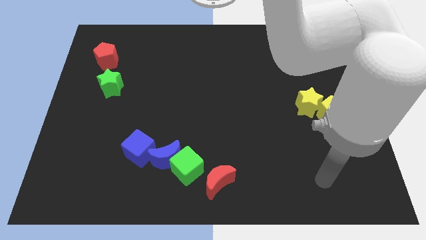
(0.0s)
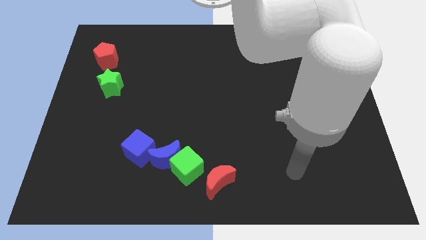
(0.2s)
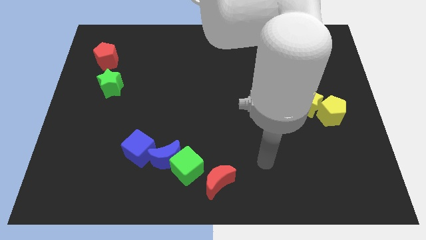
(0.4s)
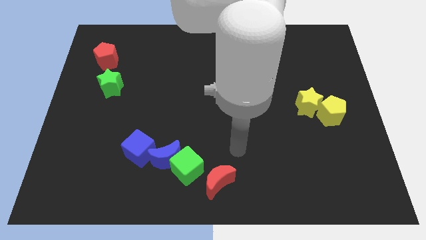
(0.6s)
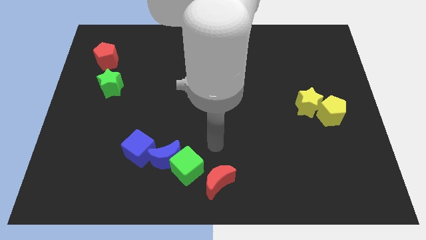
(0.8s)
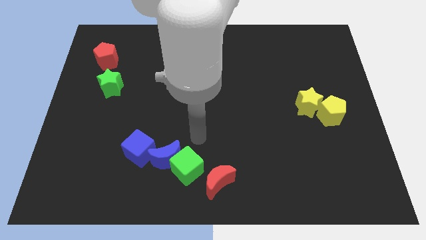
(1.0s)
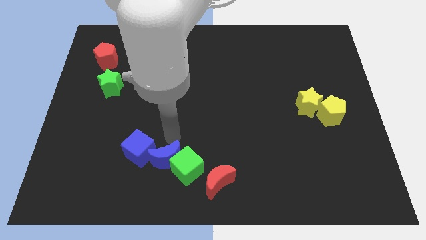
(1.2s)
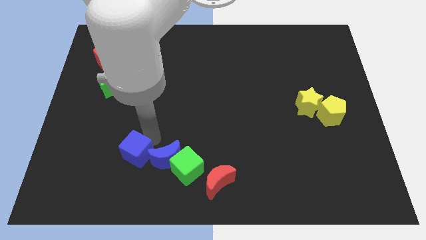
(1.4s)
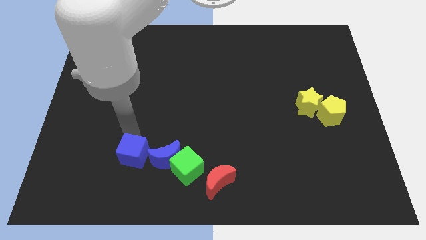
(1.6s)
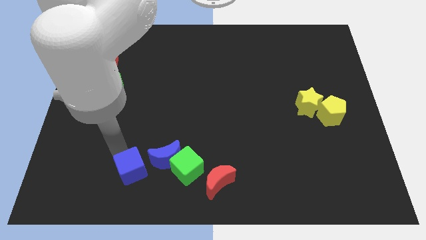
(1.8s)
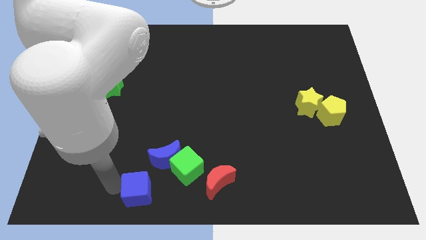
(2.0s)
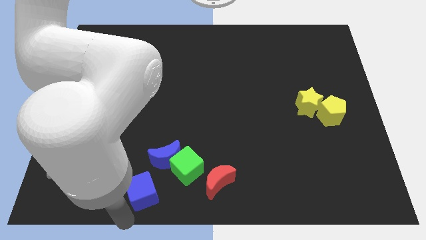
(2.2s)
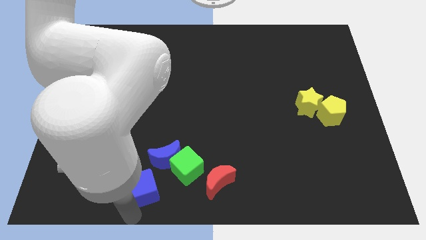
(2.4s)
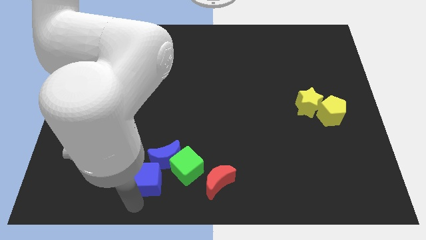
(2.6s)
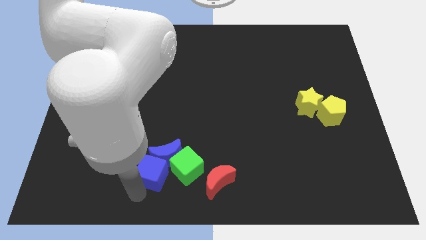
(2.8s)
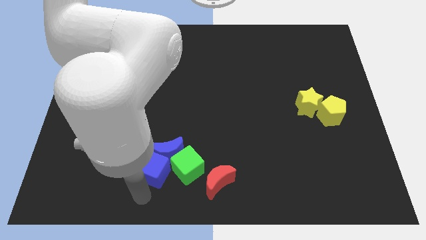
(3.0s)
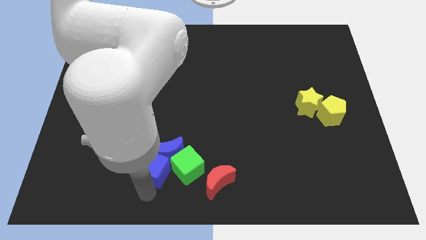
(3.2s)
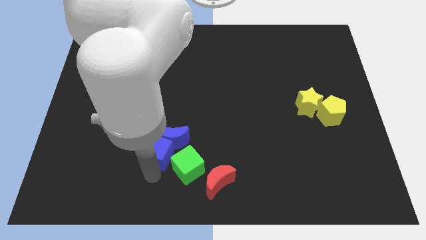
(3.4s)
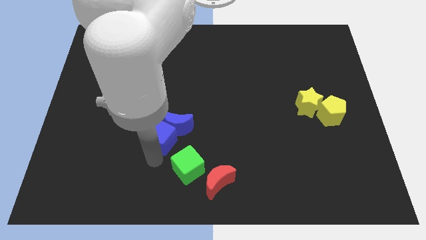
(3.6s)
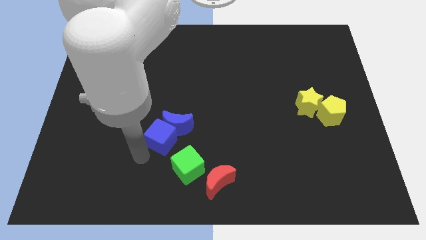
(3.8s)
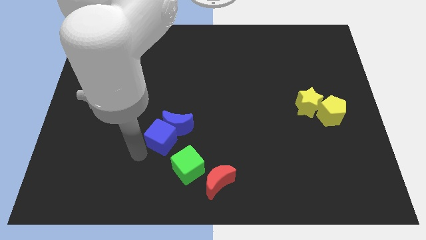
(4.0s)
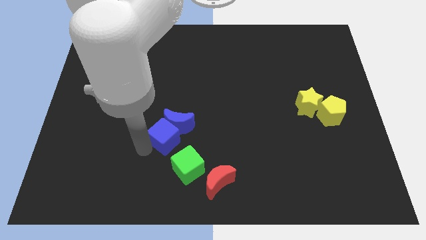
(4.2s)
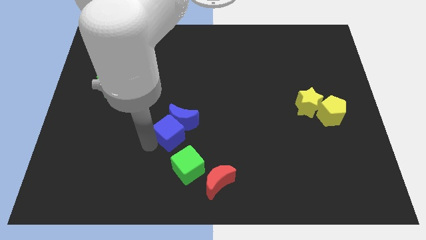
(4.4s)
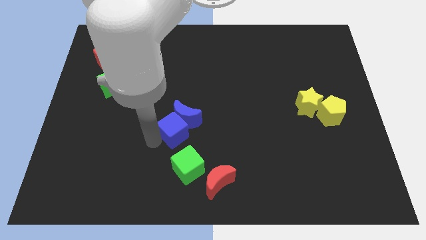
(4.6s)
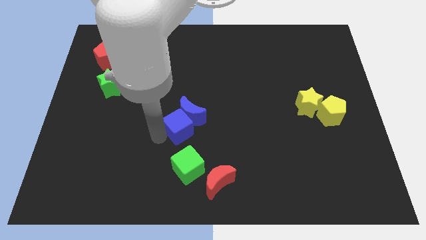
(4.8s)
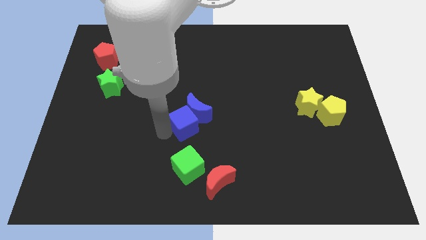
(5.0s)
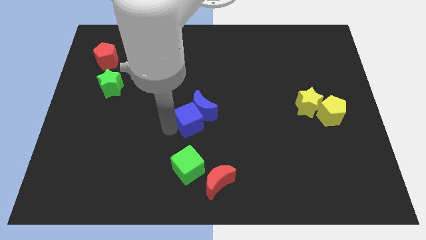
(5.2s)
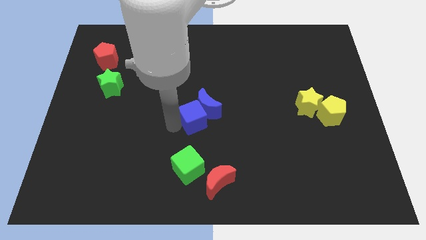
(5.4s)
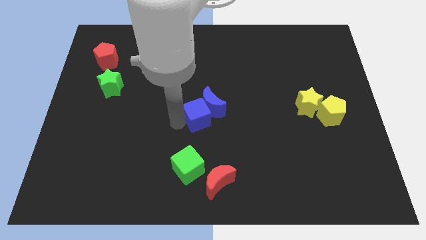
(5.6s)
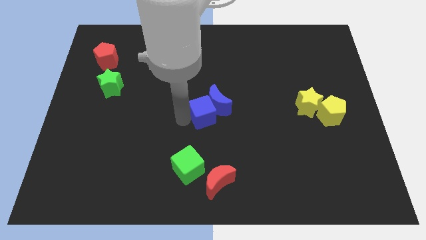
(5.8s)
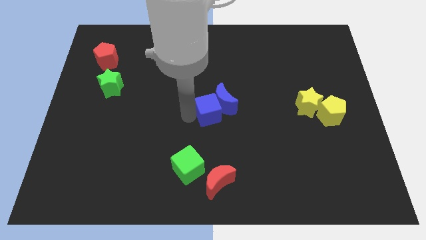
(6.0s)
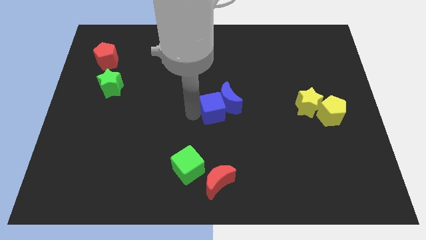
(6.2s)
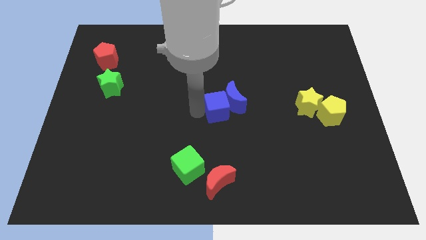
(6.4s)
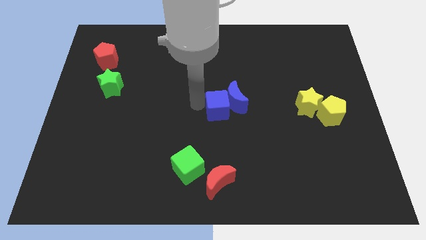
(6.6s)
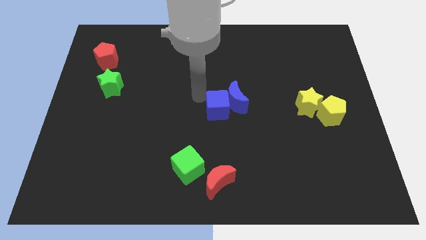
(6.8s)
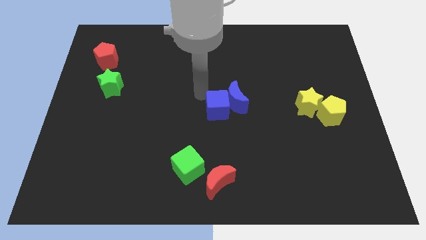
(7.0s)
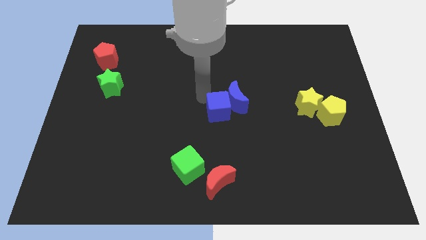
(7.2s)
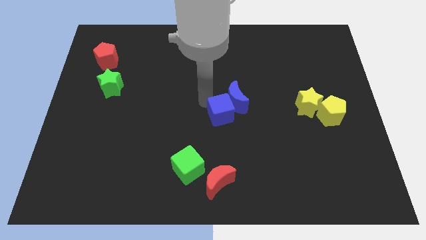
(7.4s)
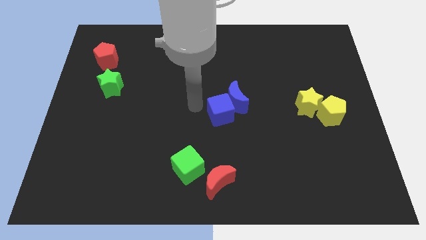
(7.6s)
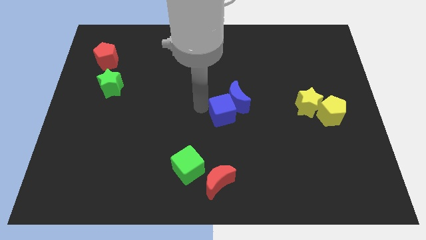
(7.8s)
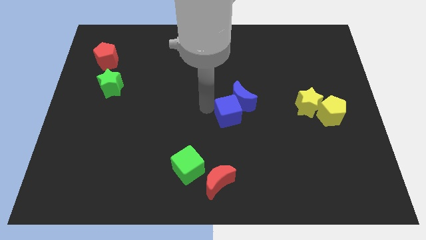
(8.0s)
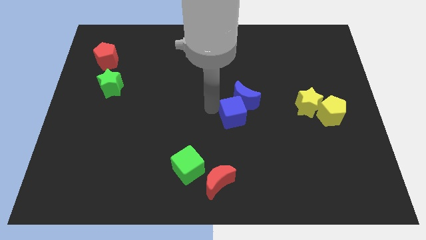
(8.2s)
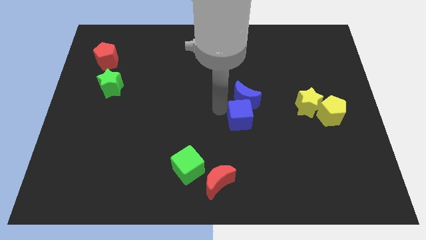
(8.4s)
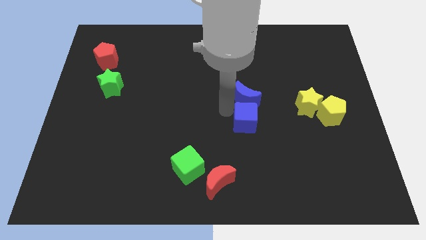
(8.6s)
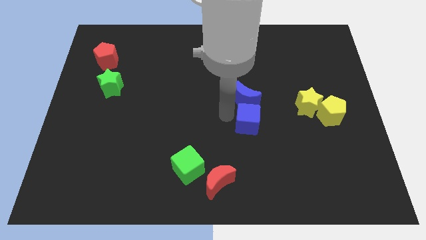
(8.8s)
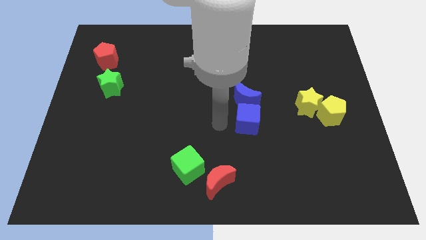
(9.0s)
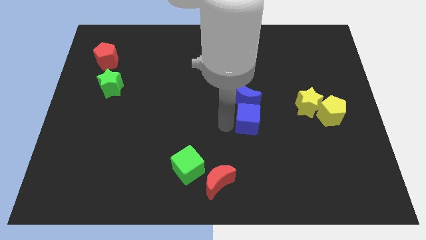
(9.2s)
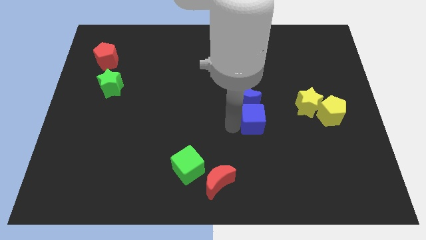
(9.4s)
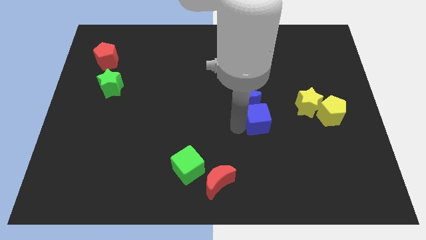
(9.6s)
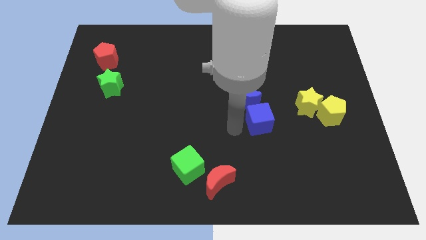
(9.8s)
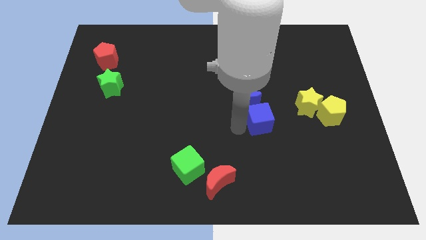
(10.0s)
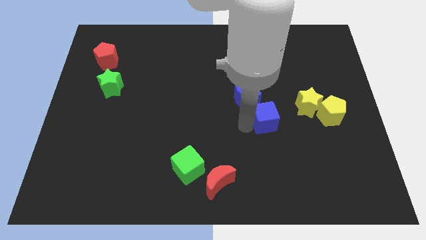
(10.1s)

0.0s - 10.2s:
slide the blue cube to the left of the yellow pentagon

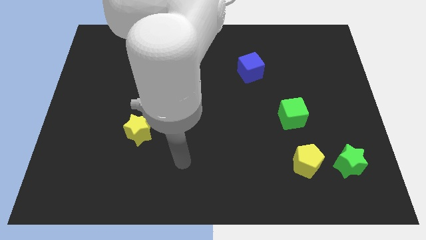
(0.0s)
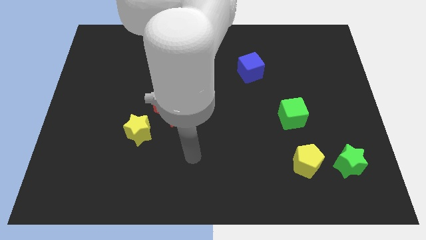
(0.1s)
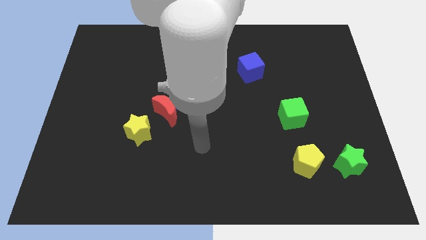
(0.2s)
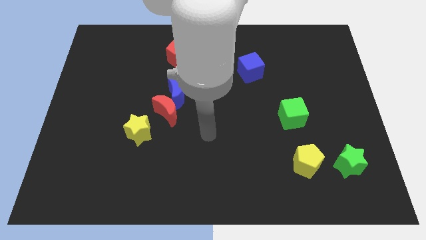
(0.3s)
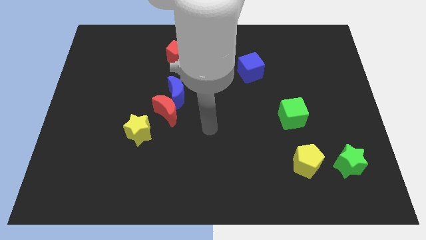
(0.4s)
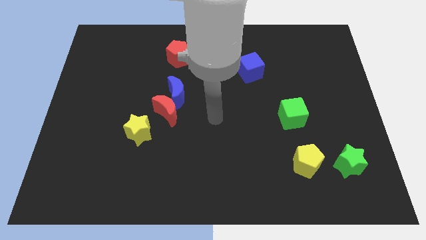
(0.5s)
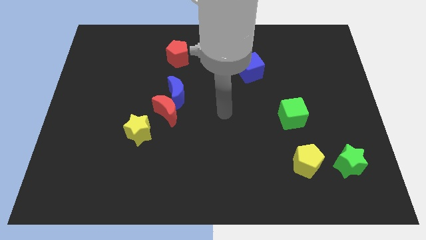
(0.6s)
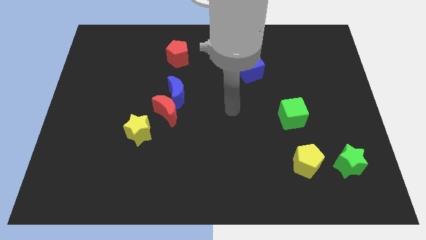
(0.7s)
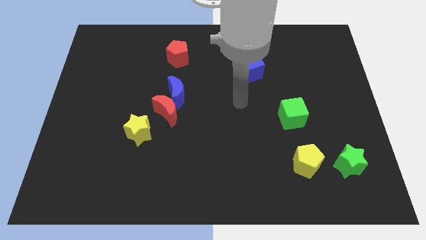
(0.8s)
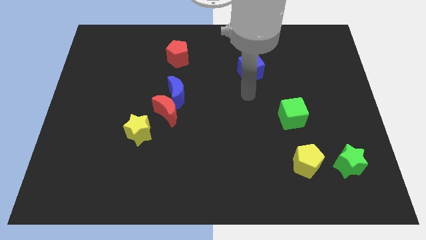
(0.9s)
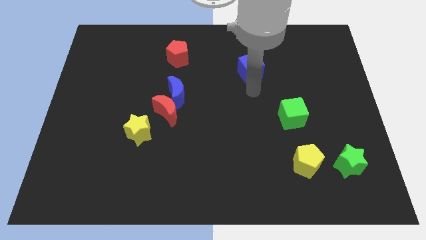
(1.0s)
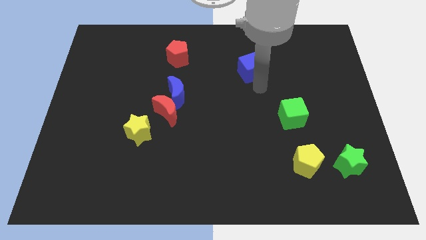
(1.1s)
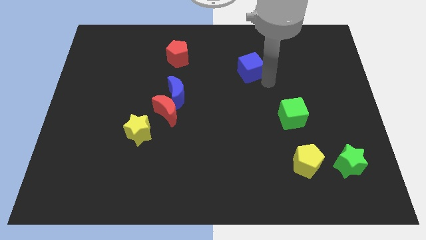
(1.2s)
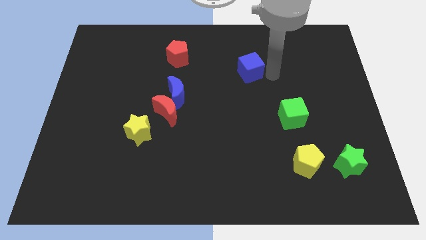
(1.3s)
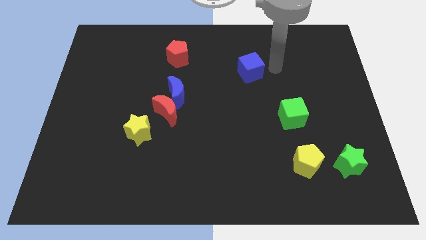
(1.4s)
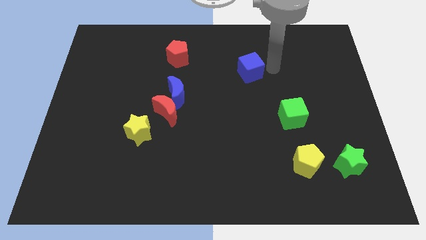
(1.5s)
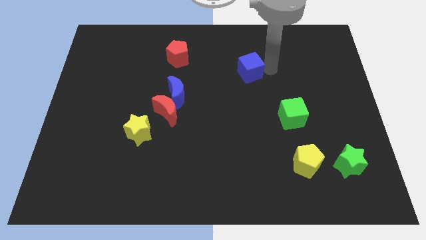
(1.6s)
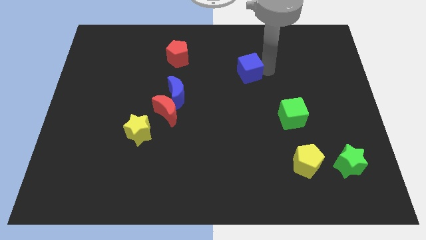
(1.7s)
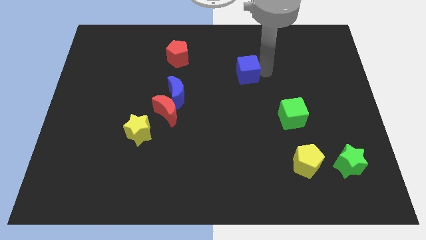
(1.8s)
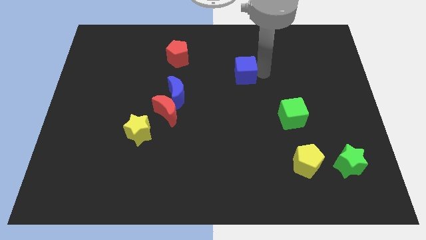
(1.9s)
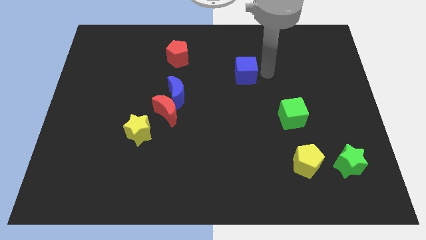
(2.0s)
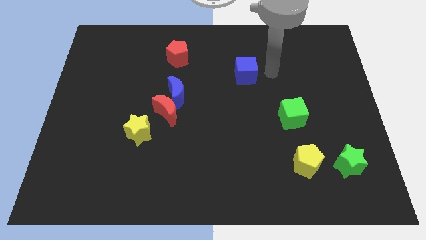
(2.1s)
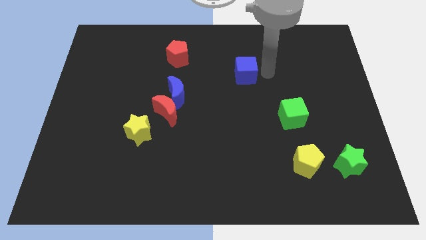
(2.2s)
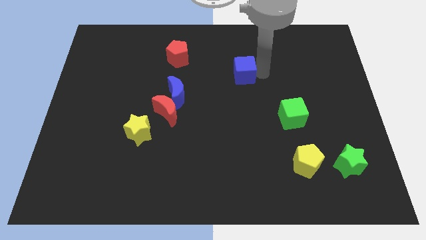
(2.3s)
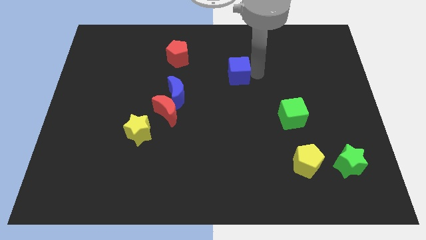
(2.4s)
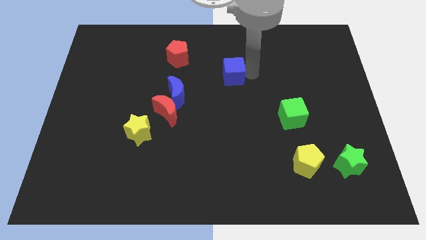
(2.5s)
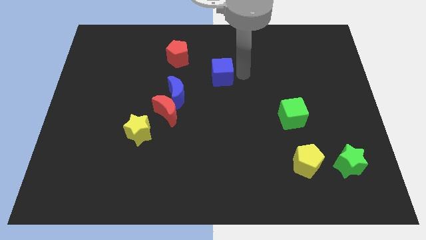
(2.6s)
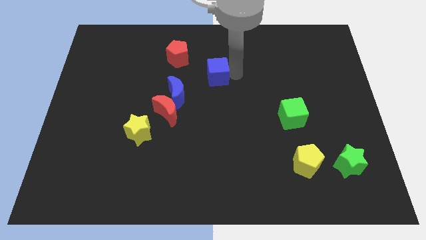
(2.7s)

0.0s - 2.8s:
push the blue cube diagonally up and to the right of the blue moon
